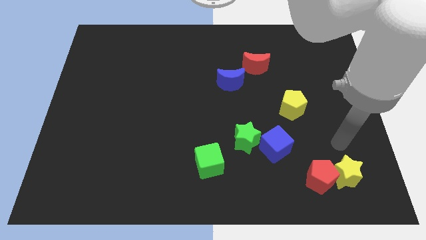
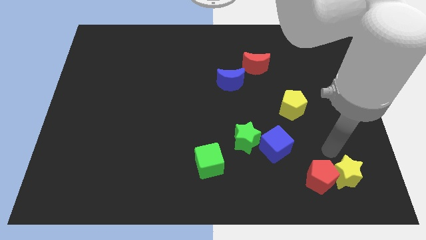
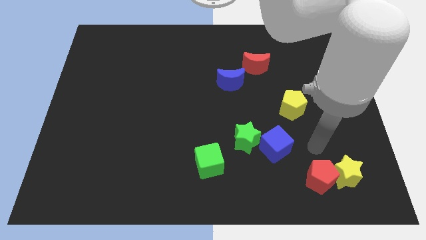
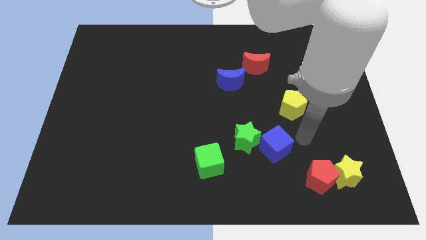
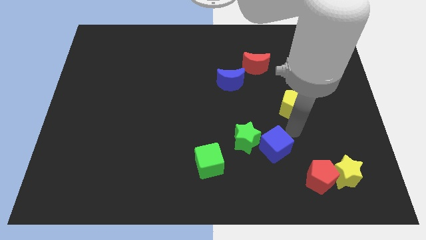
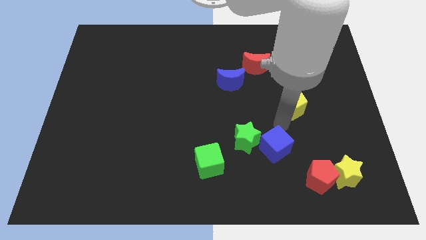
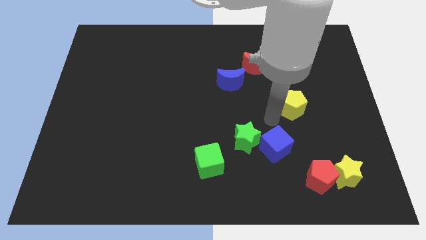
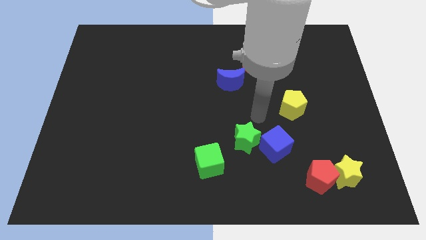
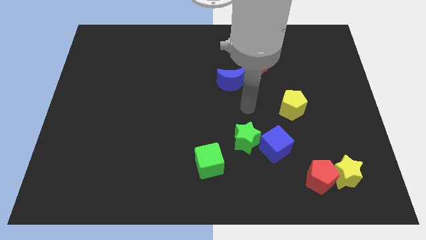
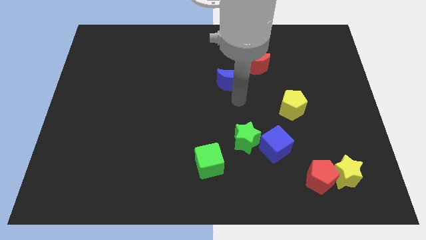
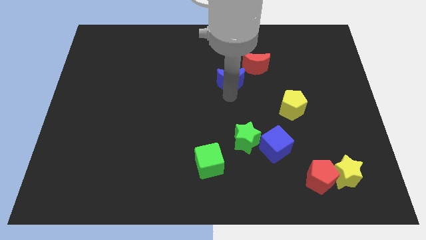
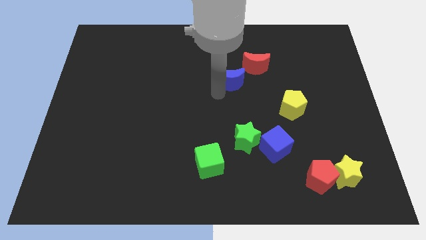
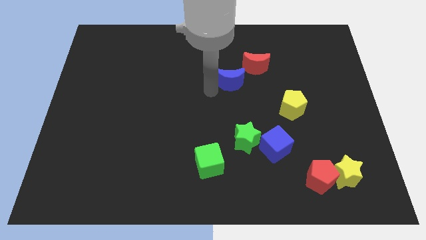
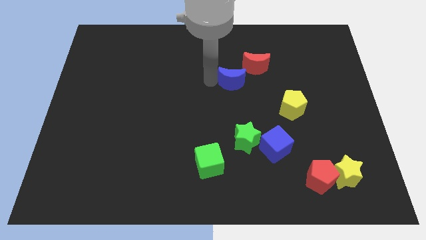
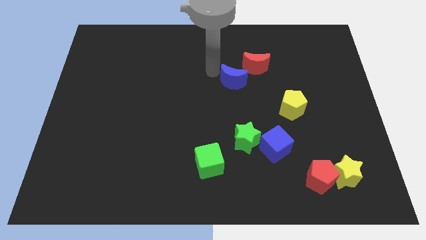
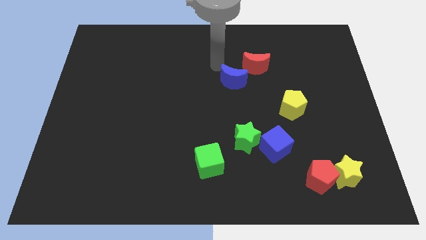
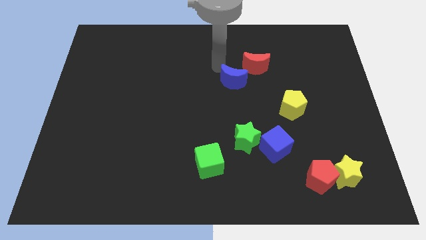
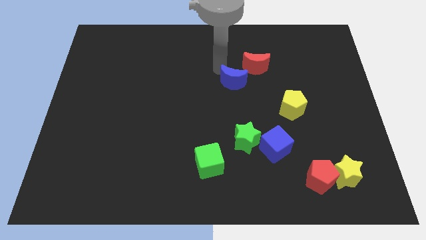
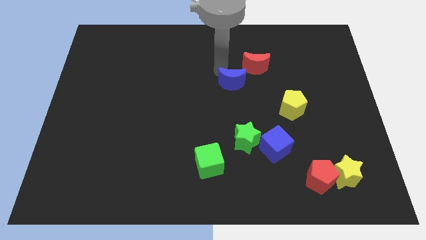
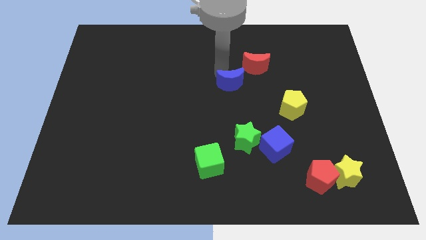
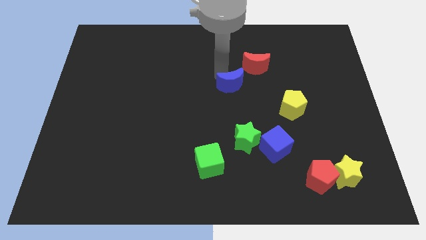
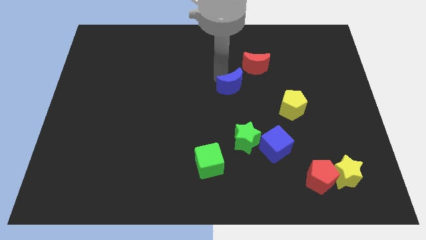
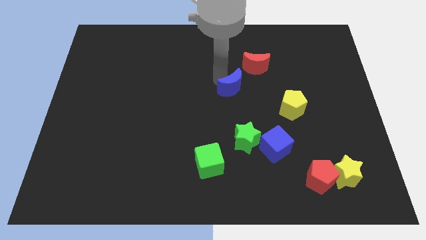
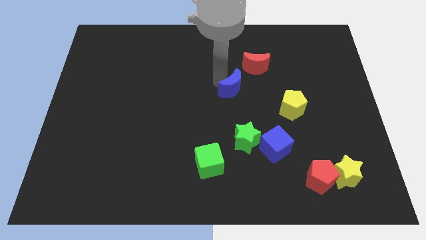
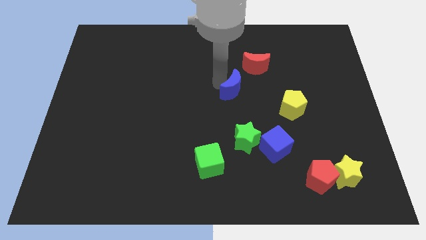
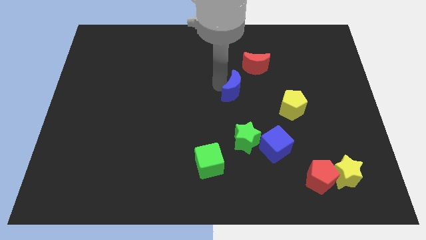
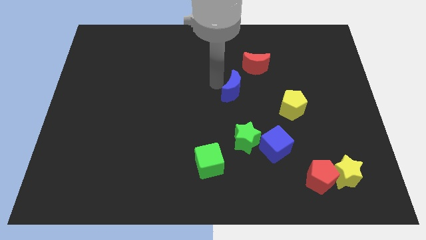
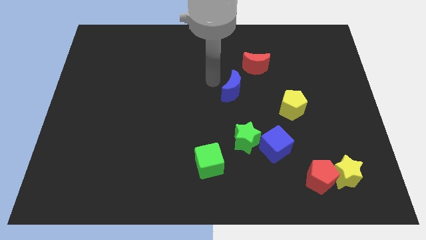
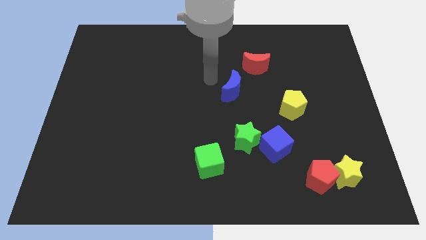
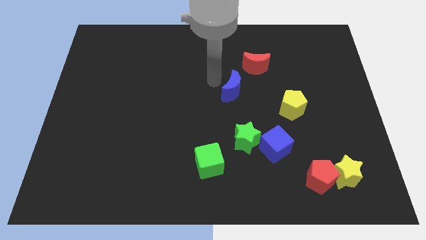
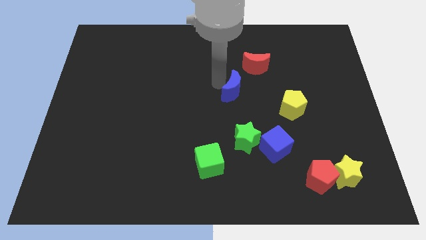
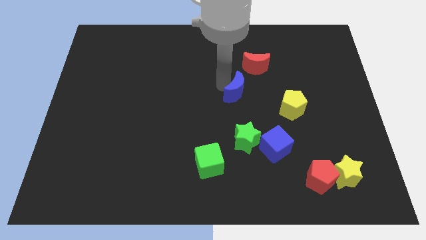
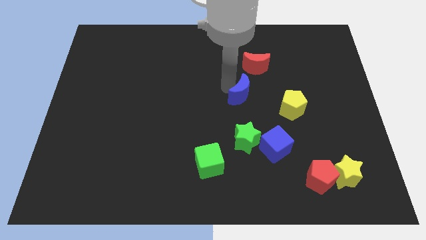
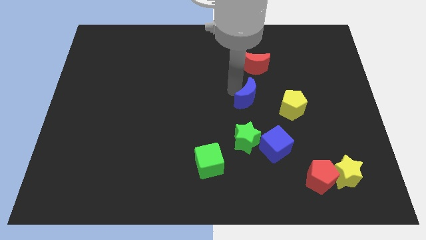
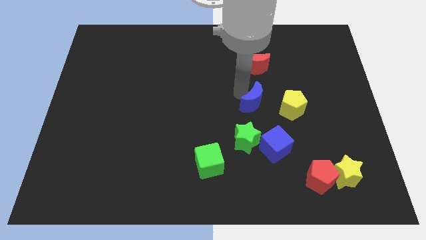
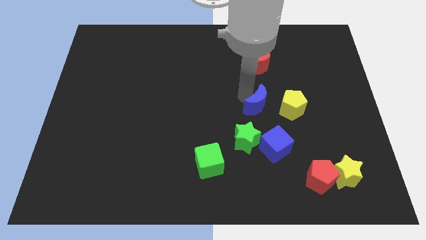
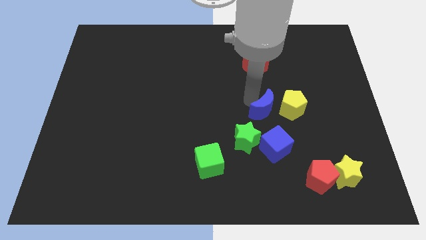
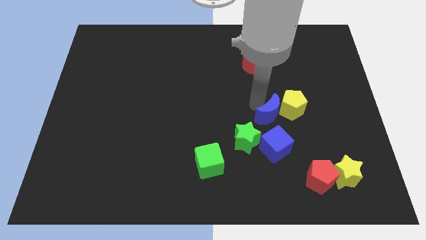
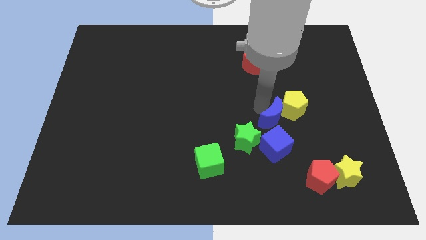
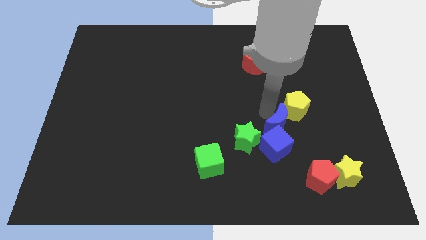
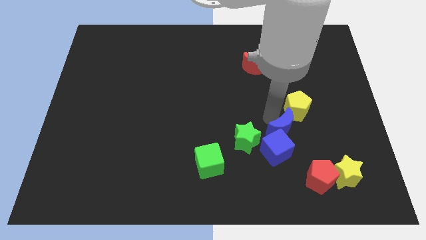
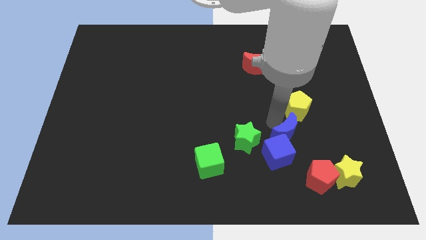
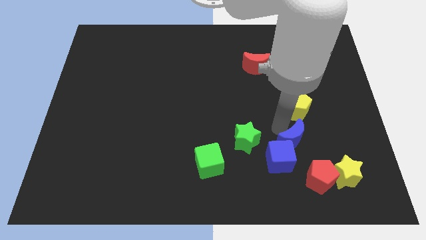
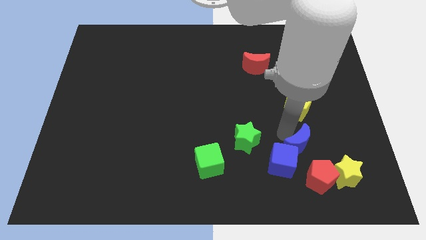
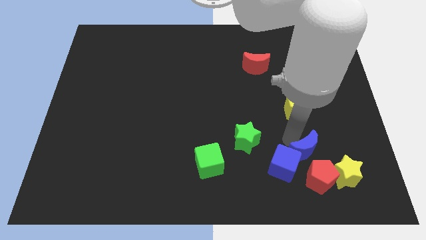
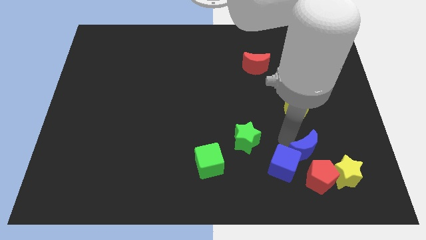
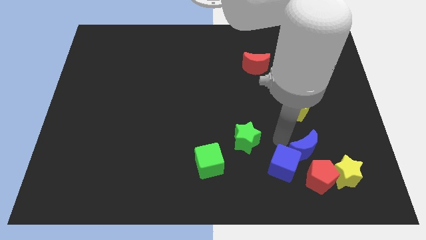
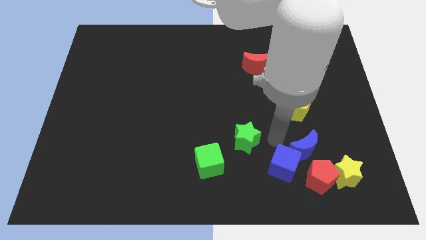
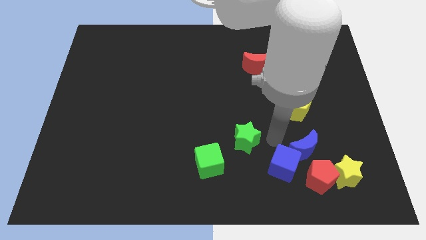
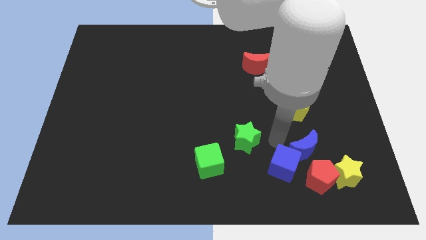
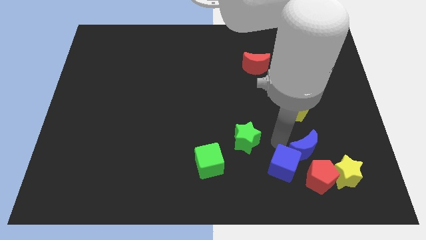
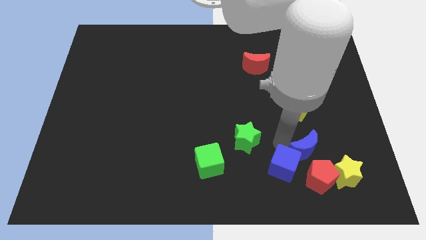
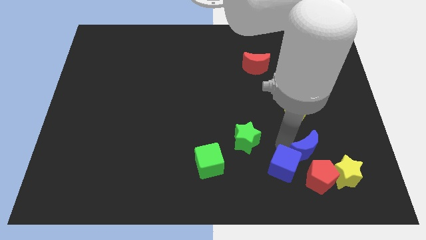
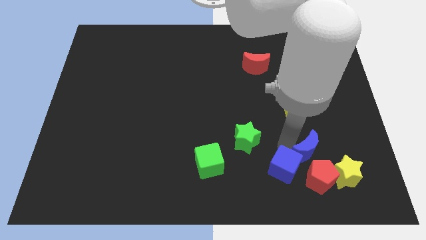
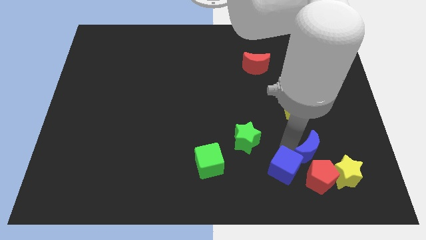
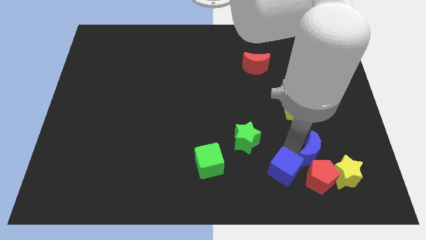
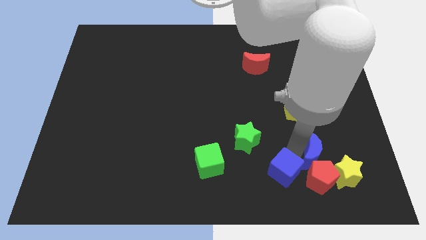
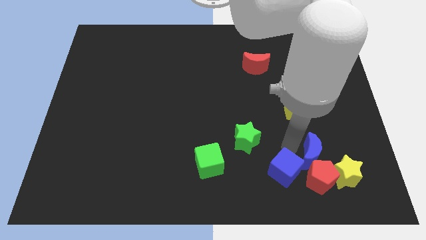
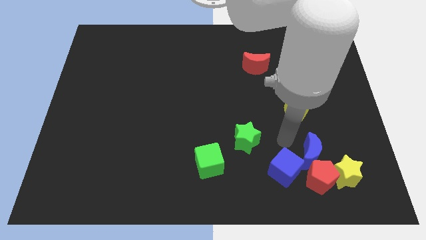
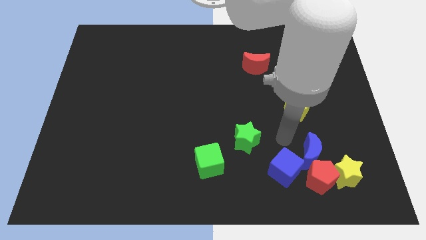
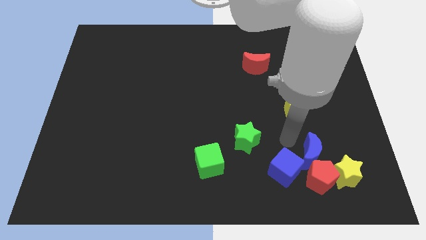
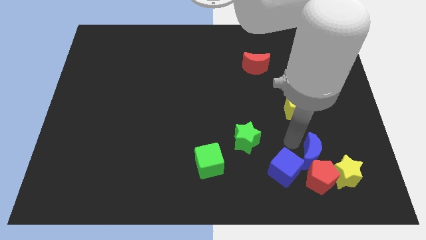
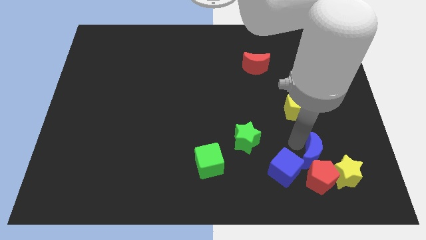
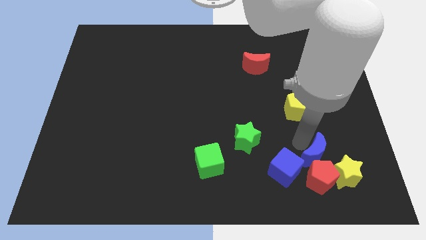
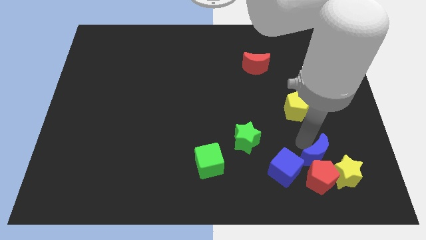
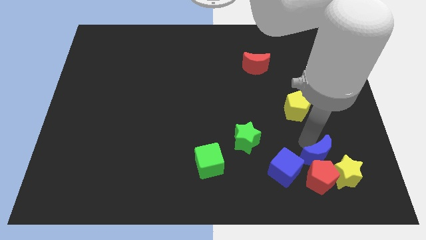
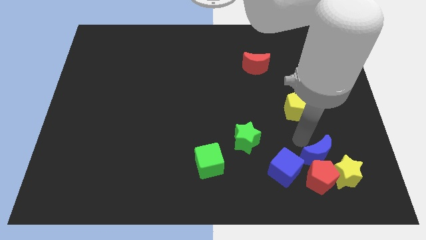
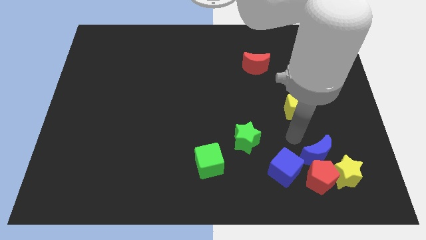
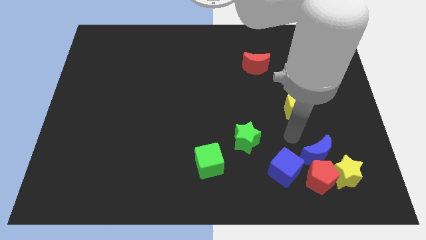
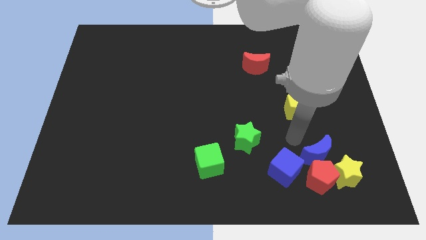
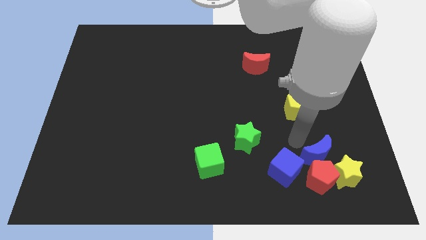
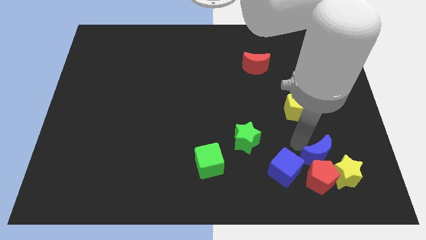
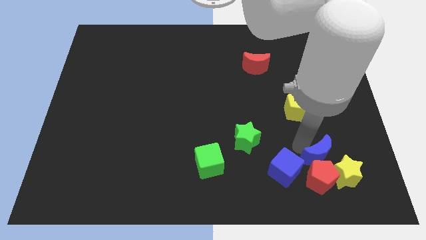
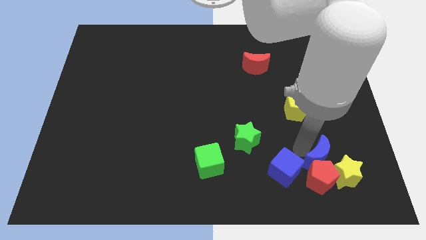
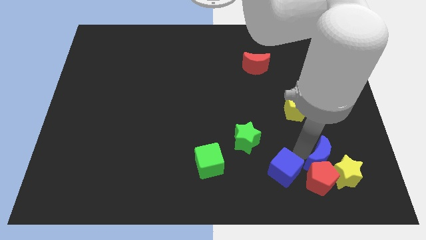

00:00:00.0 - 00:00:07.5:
move the blue moon towards the yellow star
